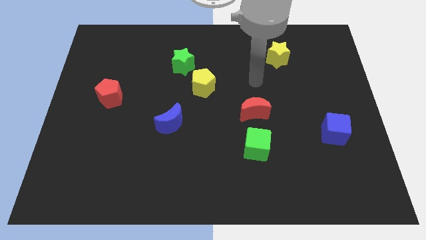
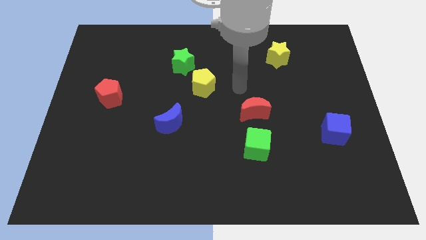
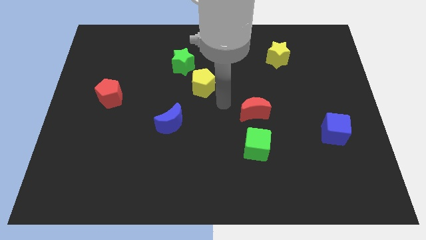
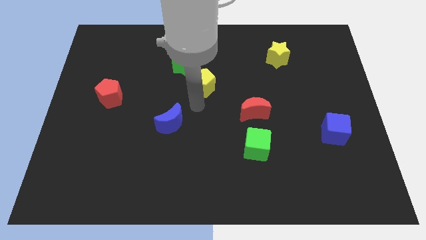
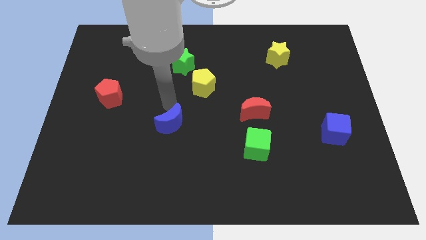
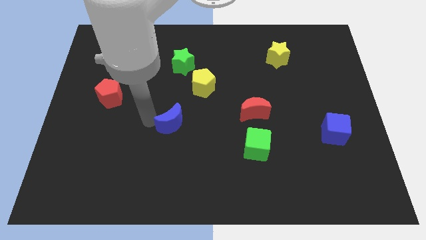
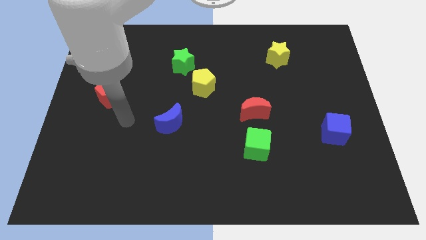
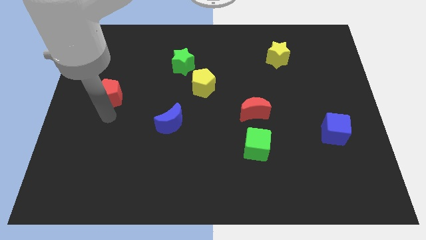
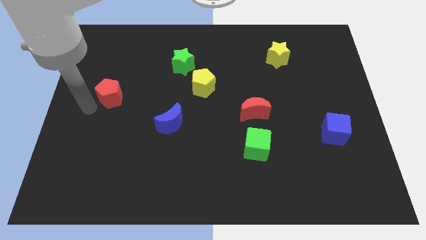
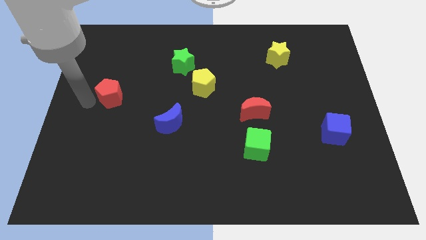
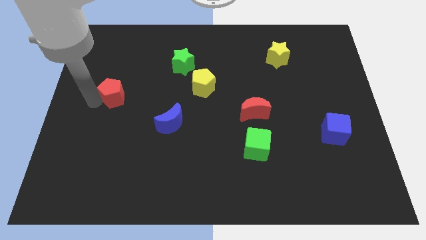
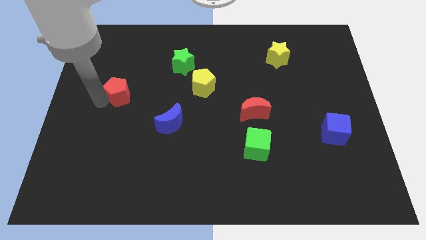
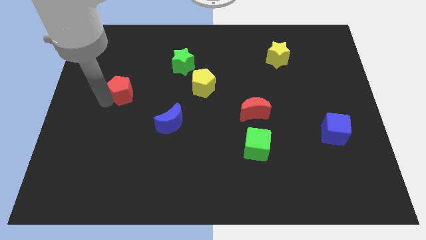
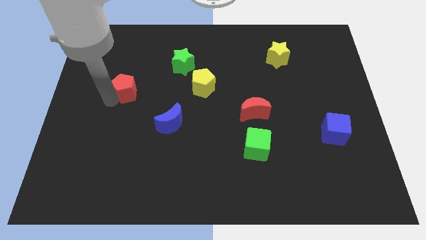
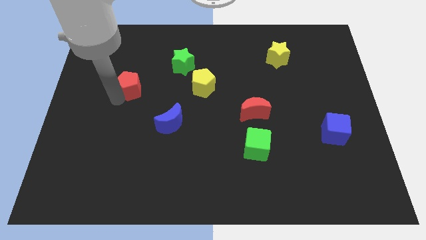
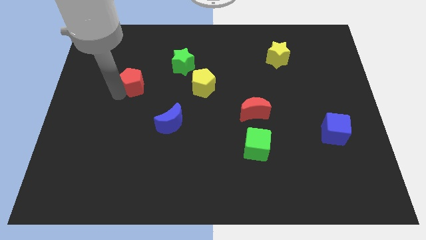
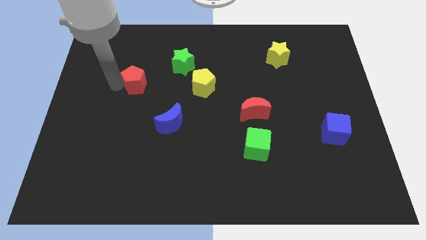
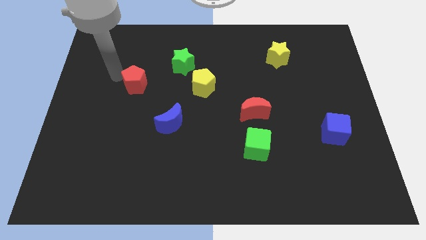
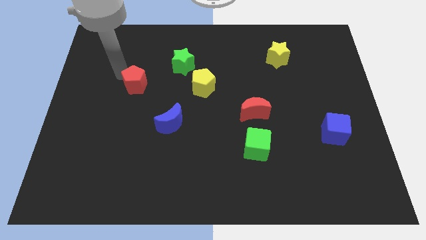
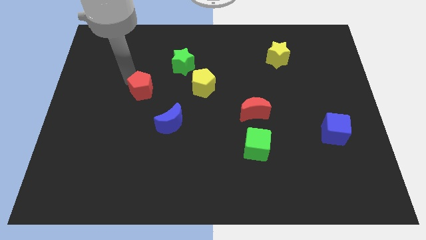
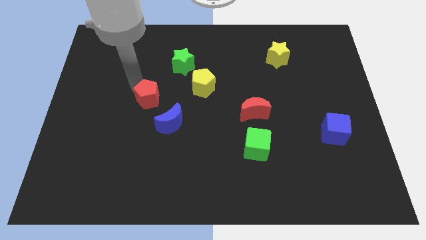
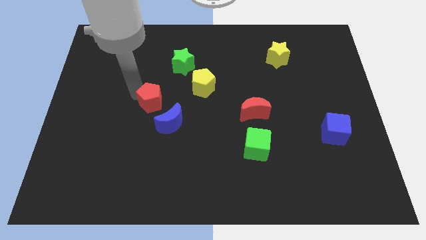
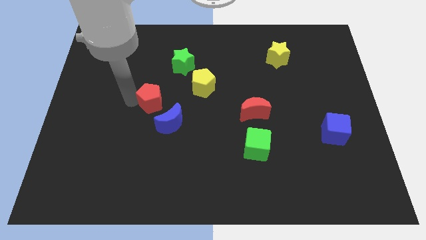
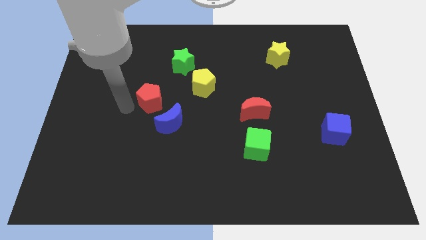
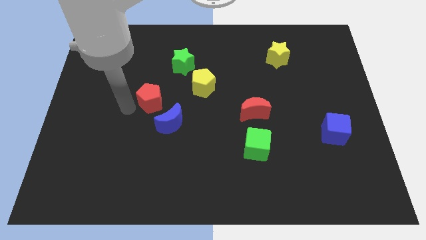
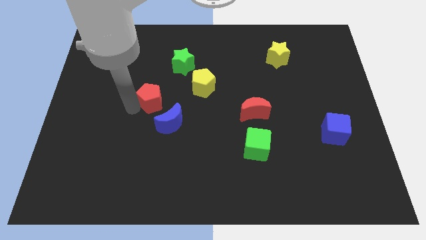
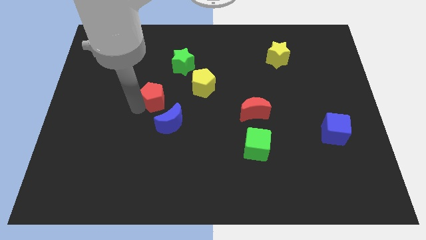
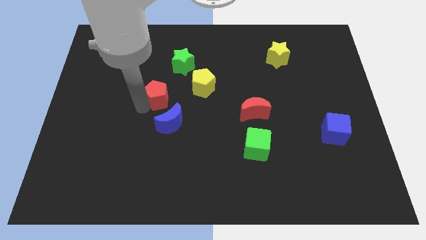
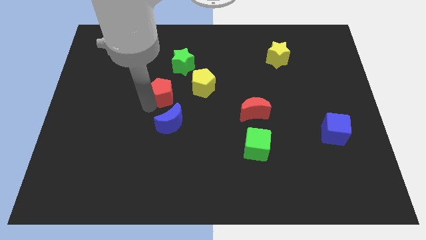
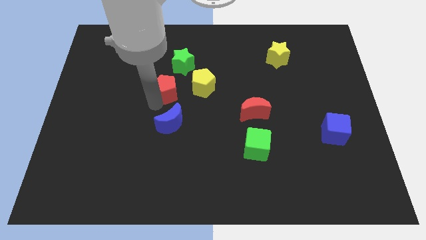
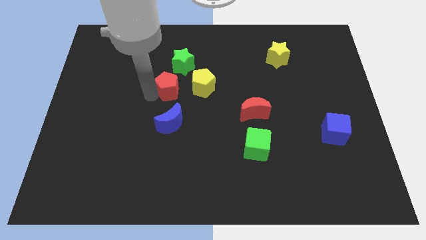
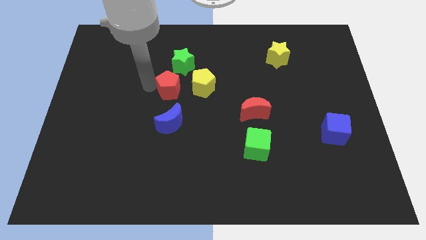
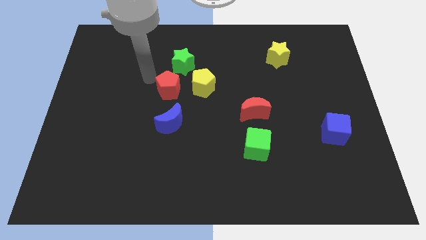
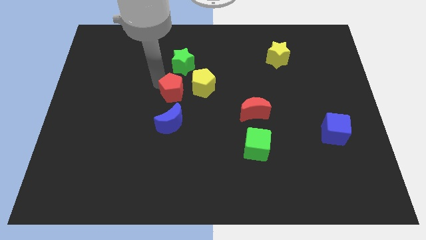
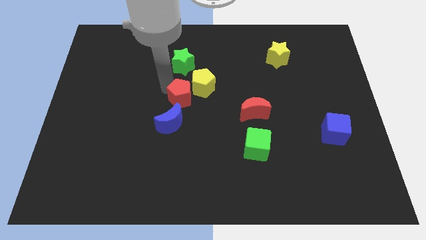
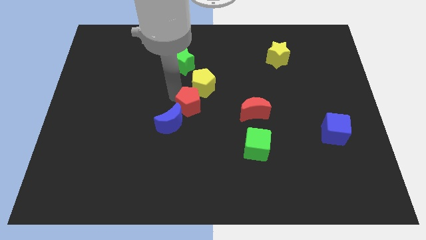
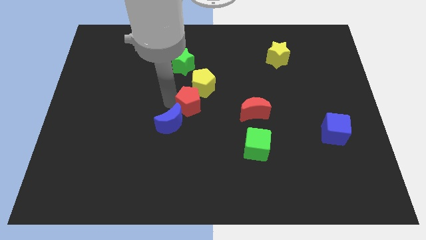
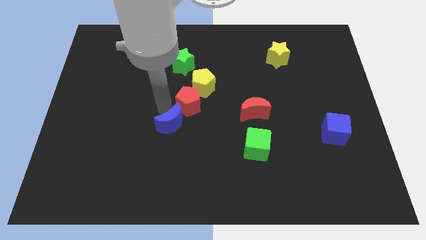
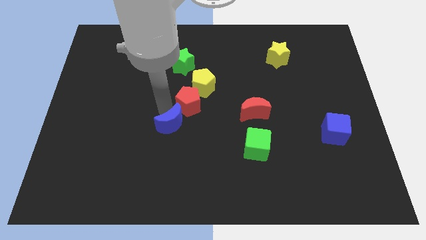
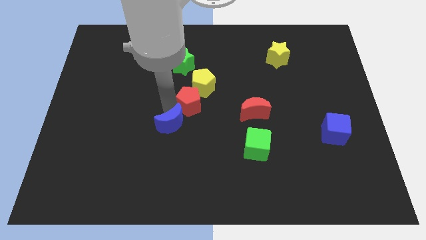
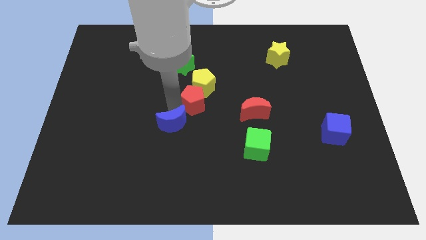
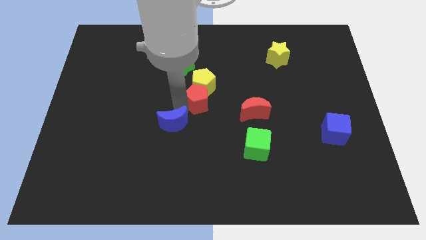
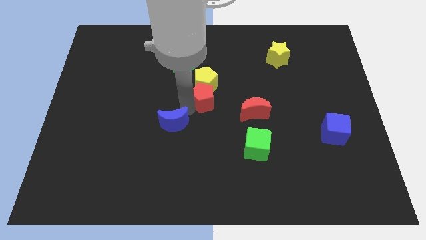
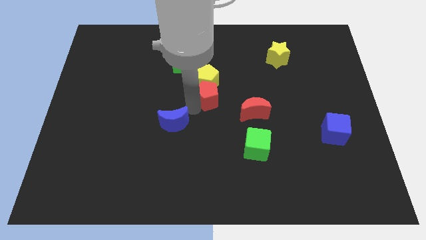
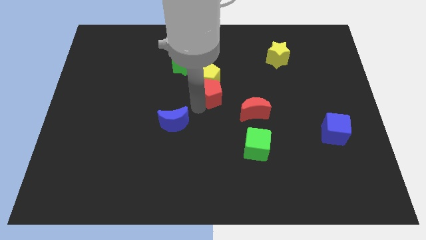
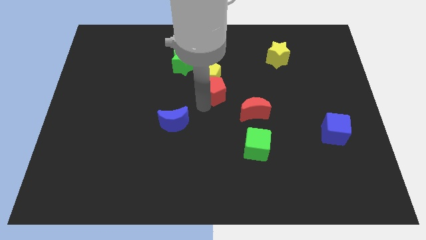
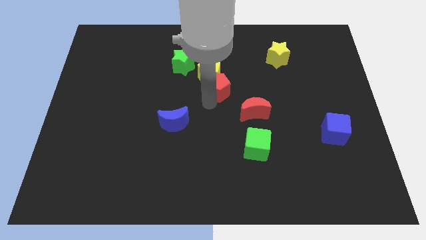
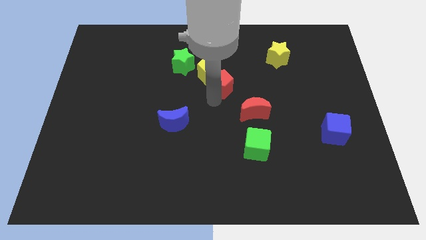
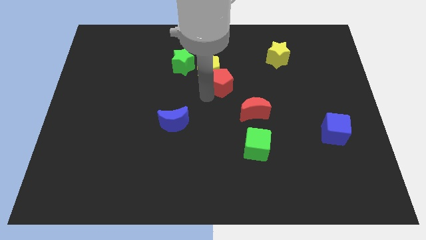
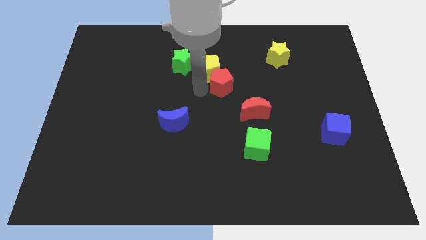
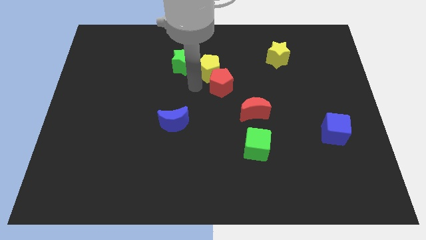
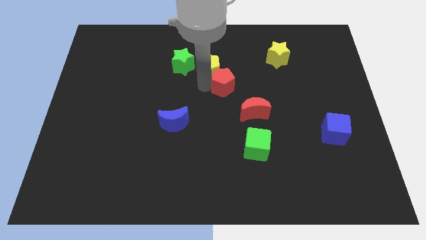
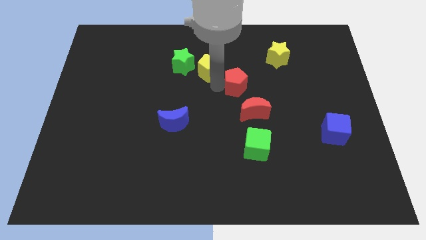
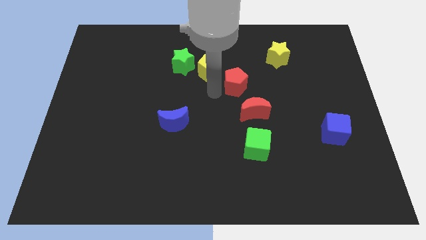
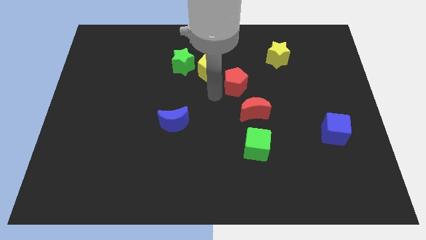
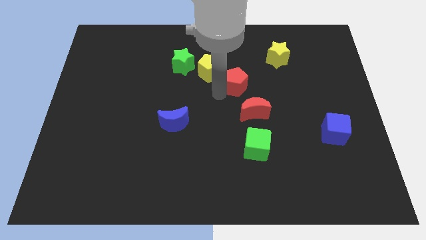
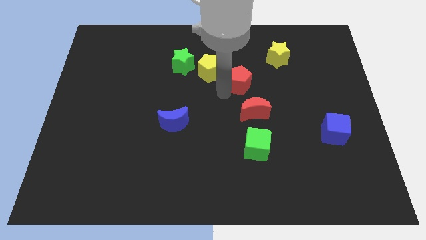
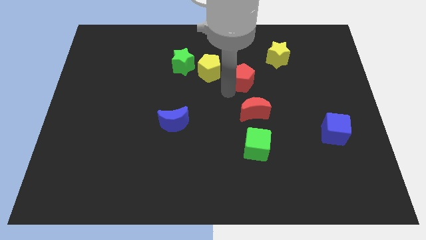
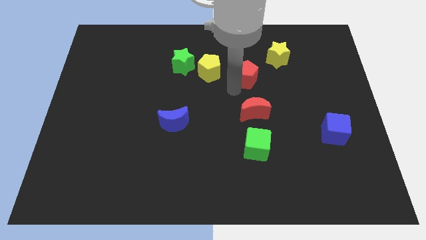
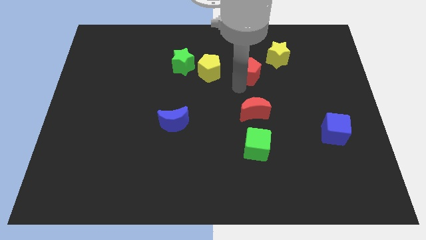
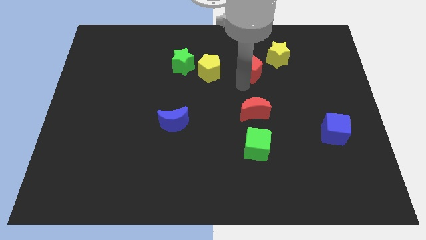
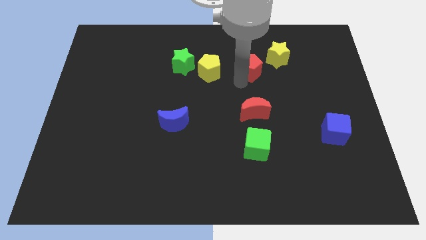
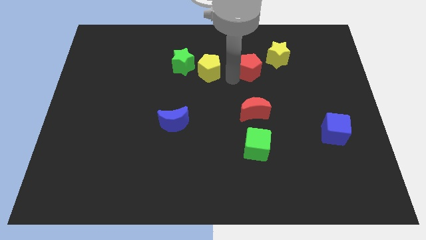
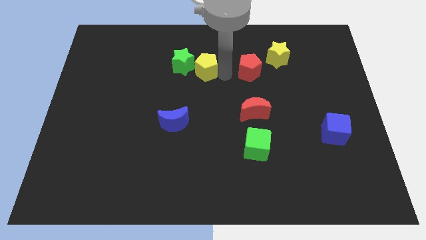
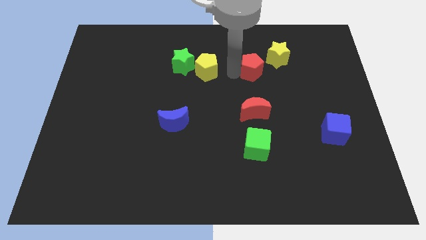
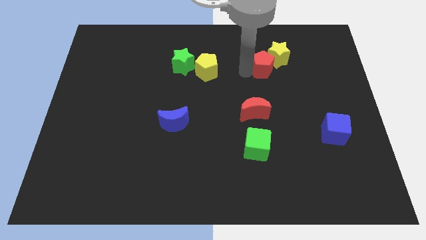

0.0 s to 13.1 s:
slide the red pentagon next to the yellow star
